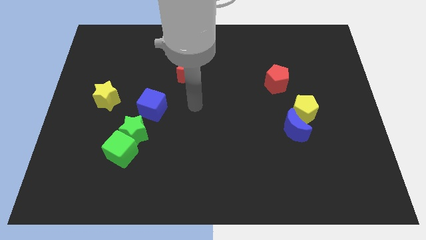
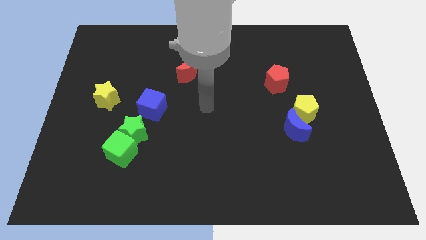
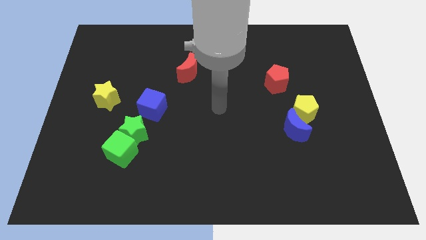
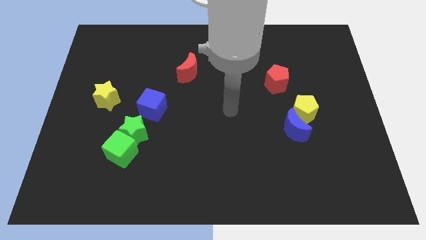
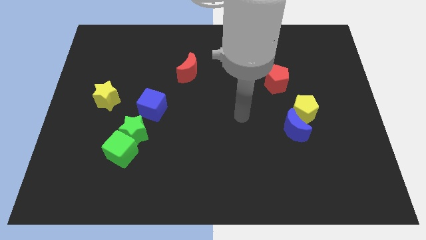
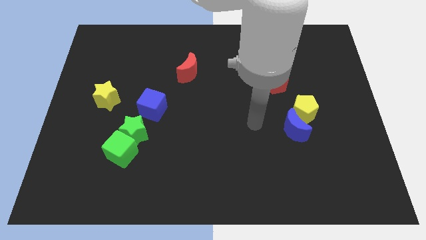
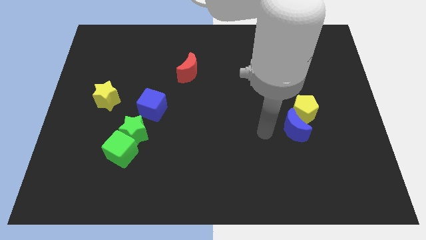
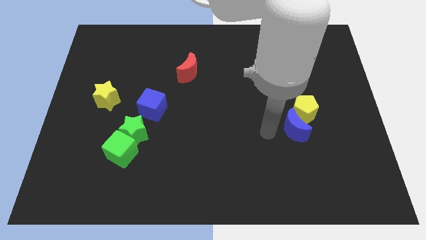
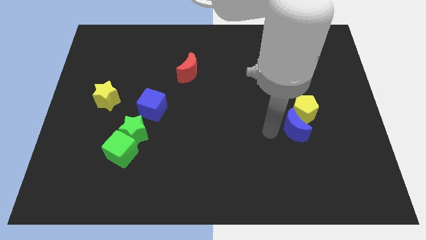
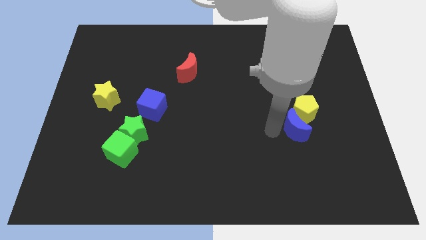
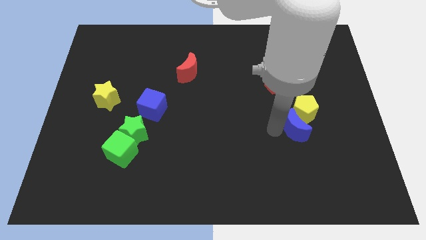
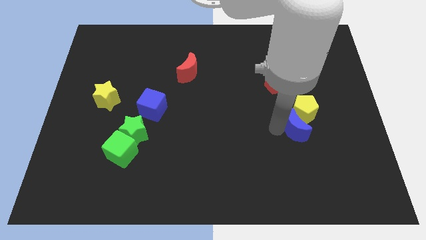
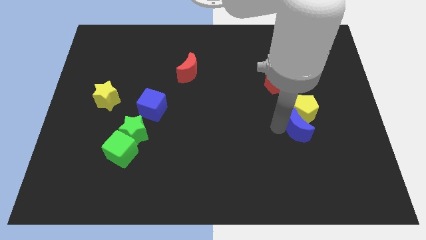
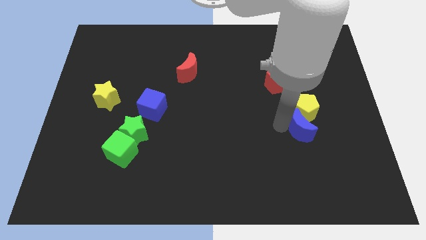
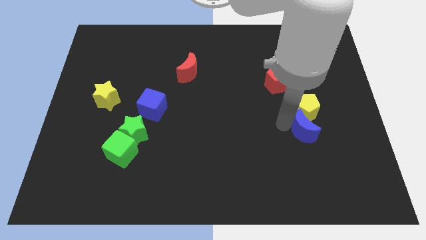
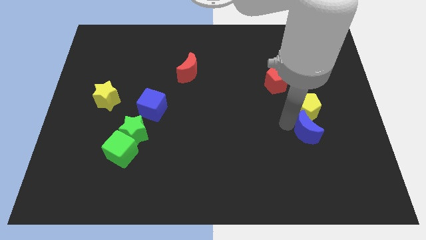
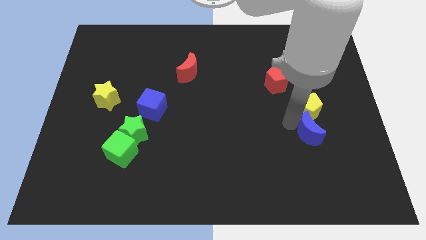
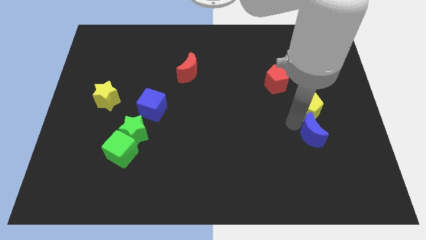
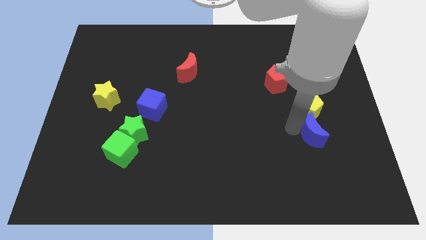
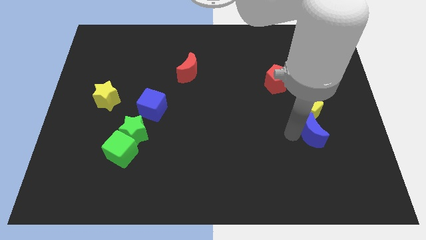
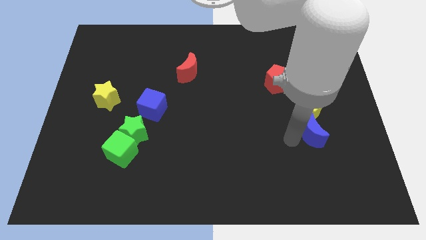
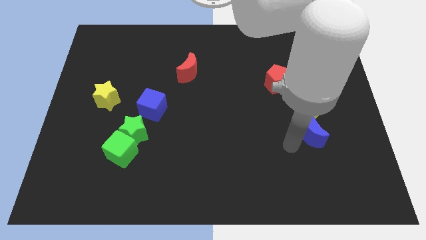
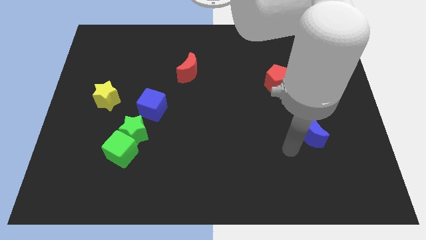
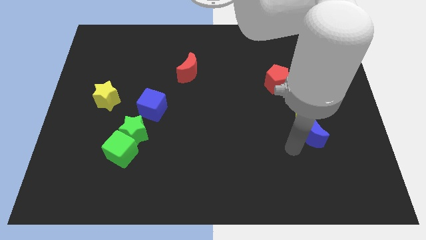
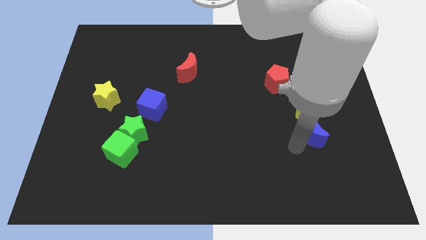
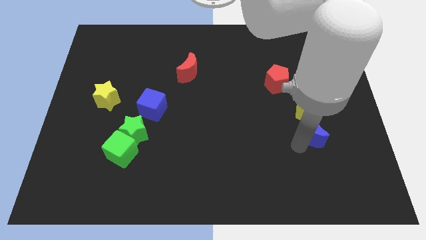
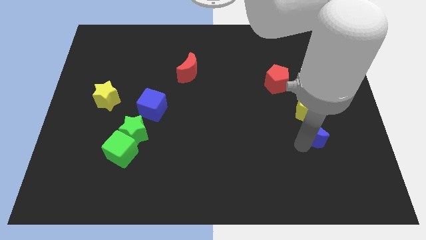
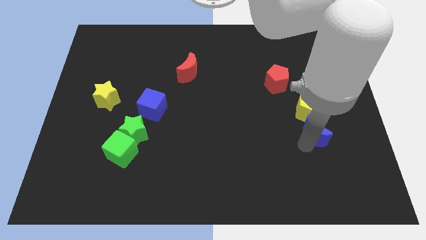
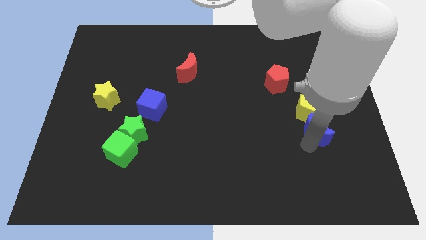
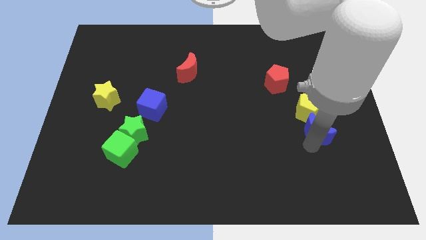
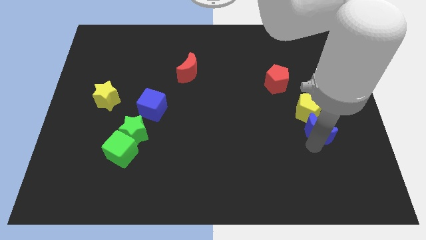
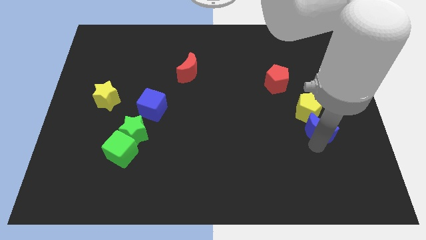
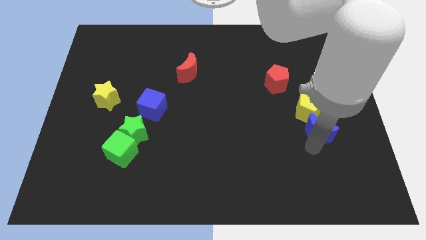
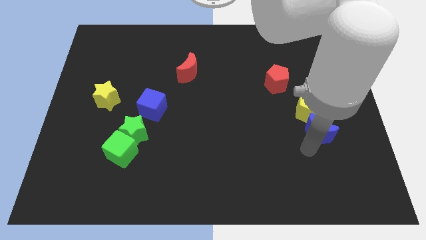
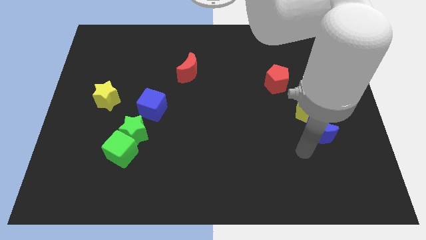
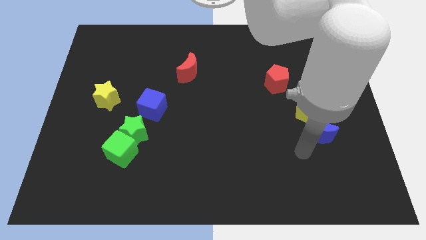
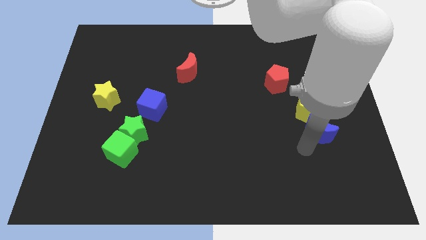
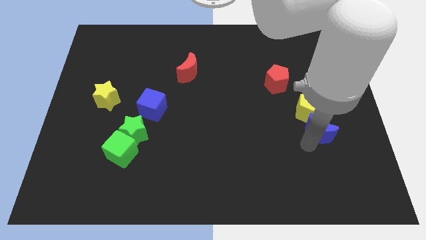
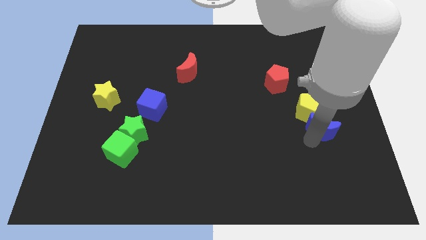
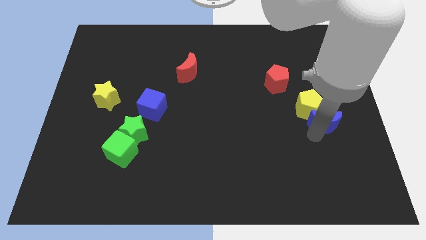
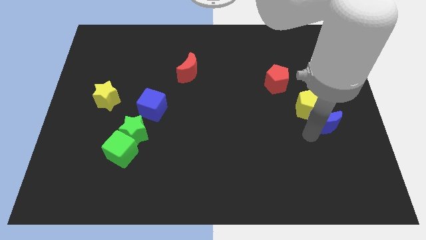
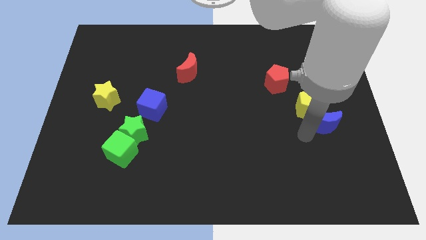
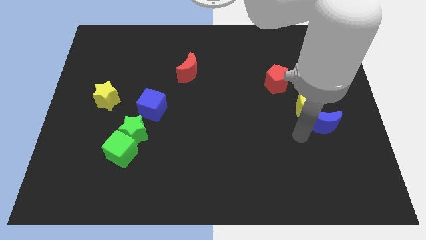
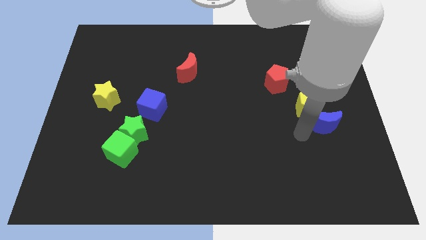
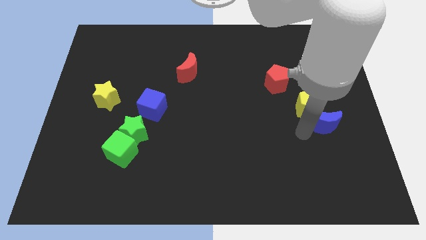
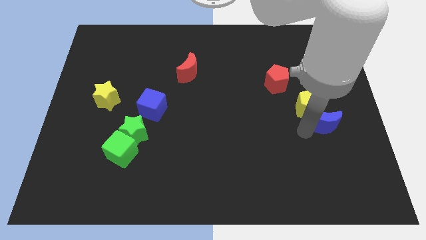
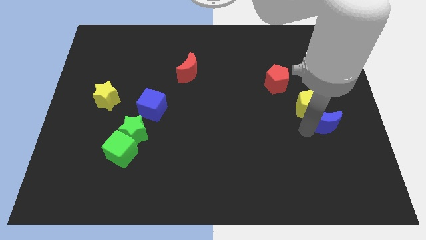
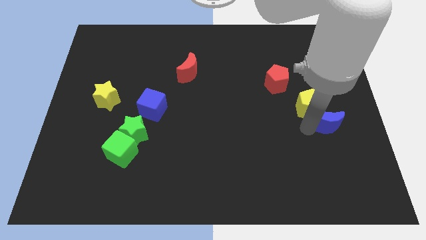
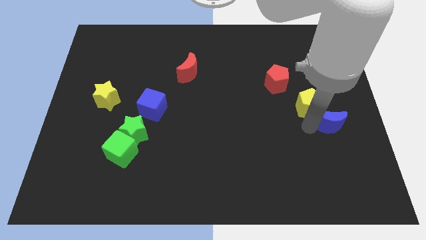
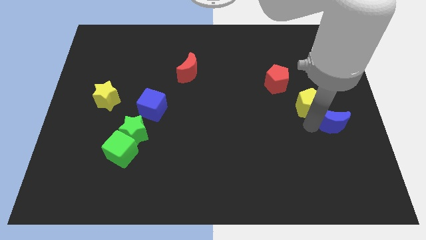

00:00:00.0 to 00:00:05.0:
push the blue moon to the right side of the board

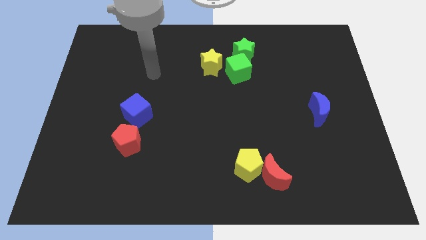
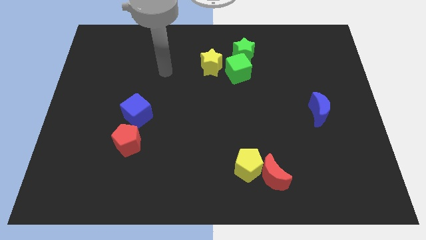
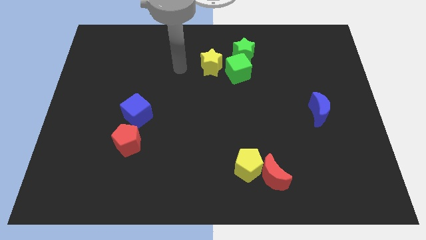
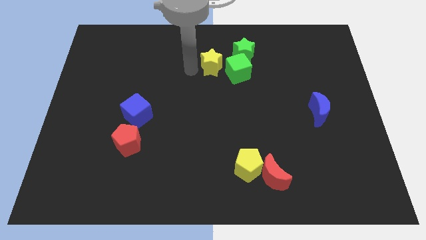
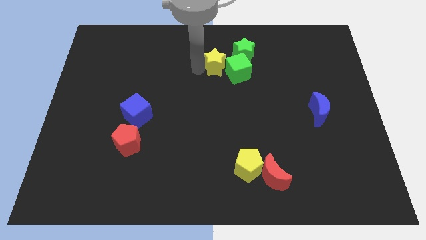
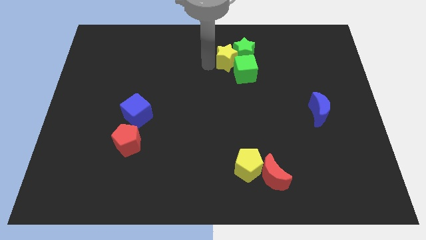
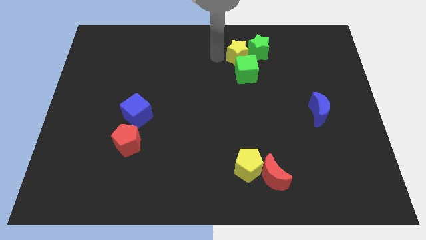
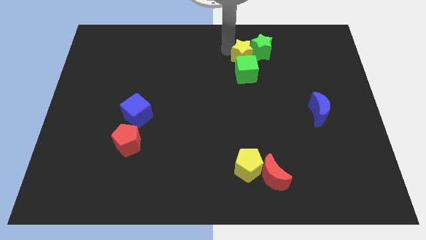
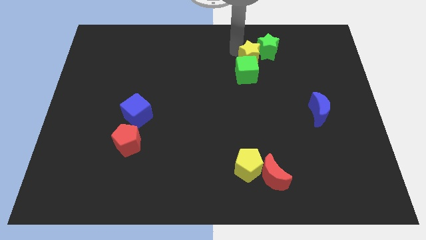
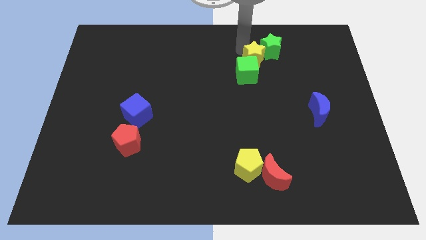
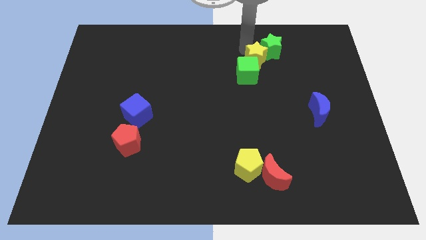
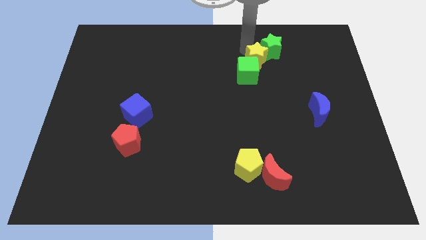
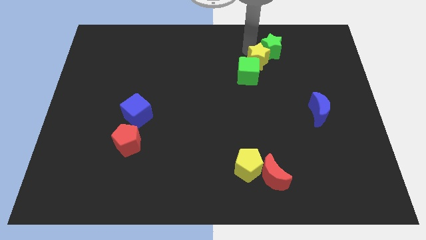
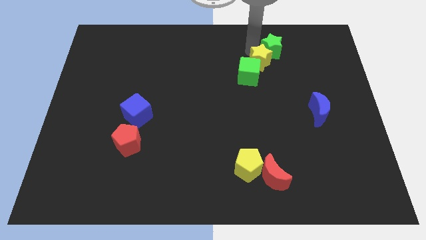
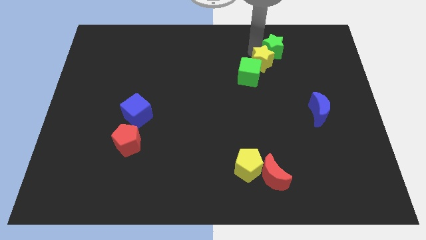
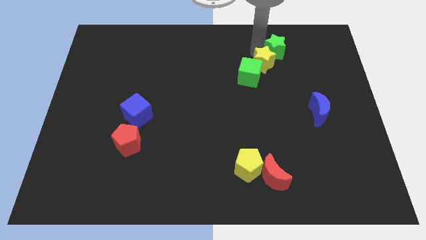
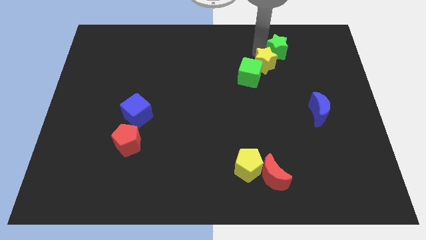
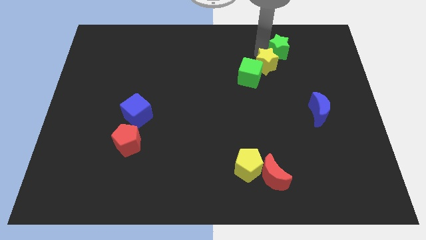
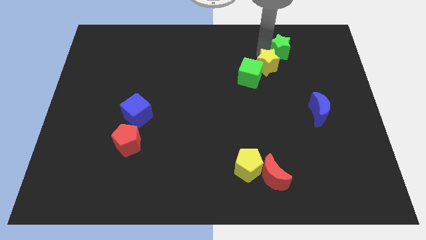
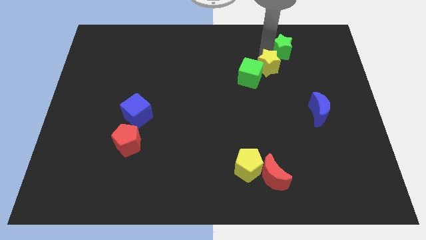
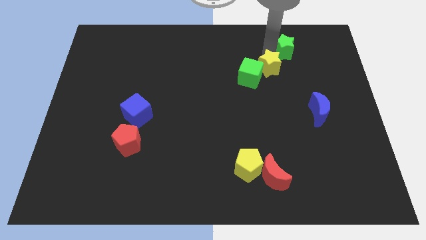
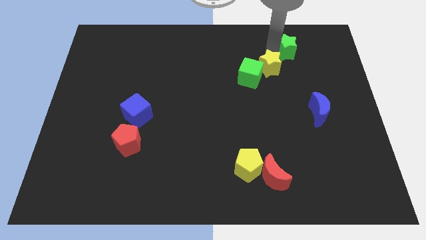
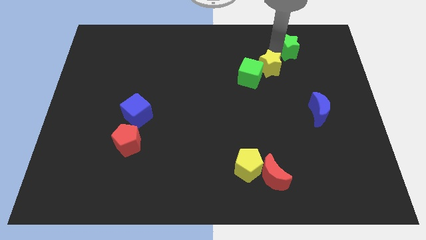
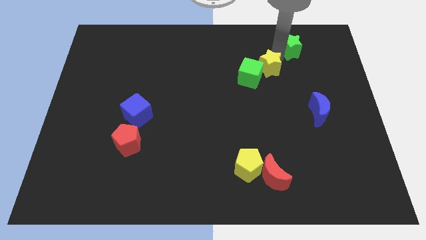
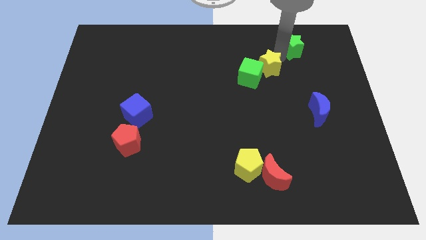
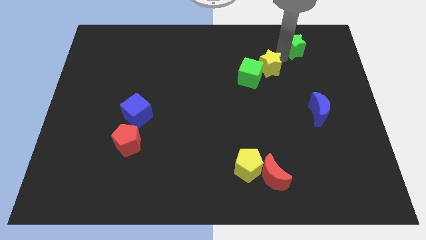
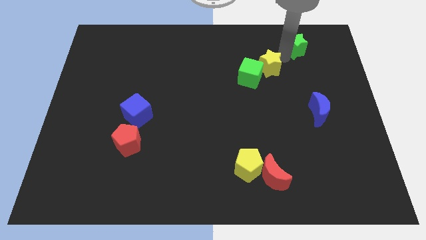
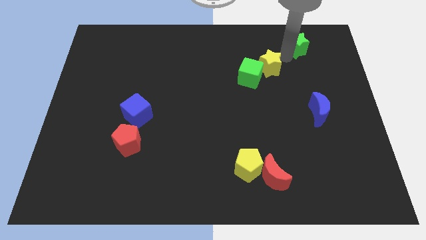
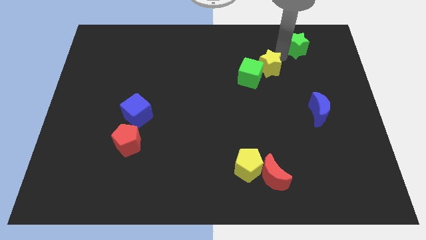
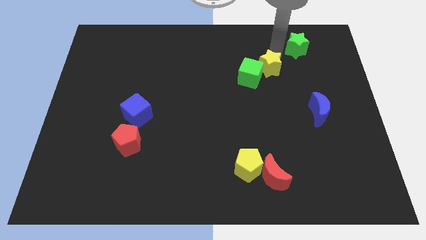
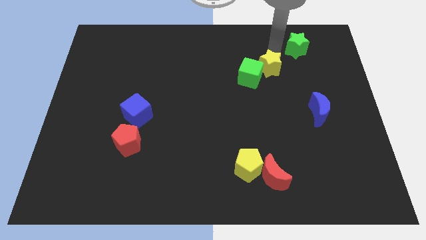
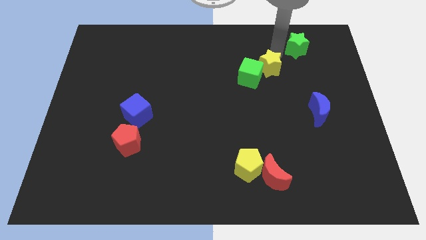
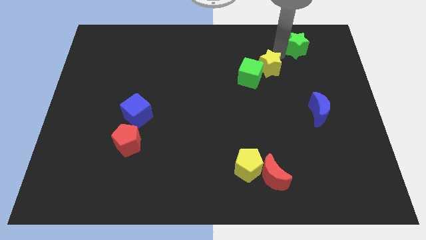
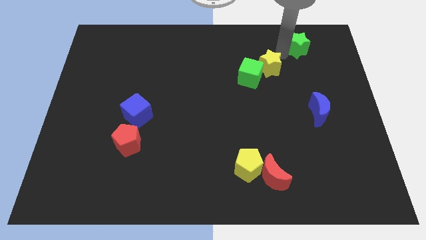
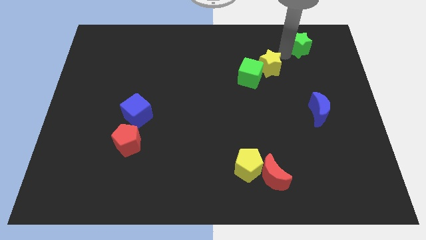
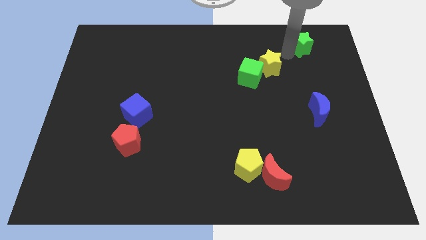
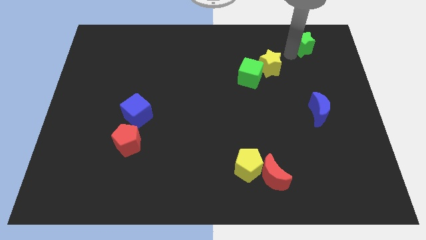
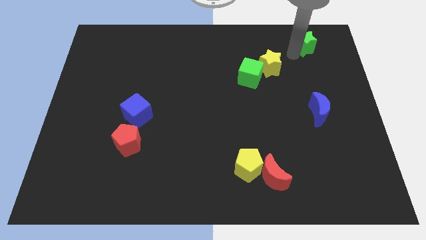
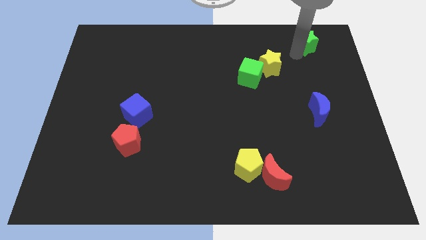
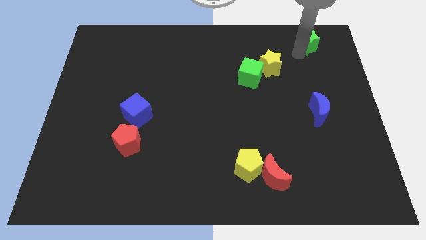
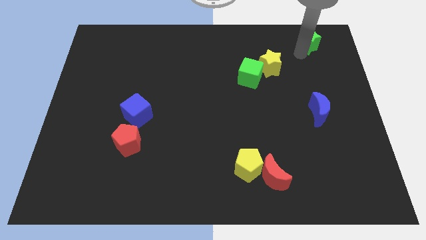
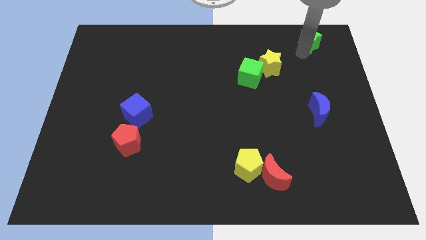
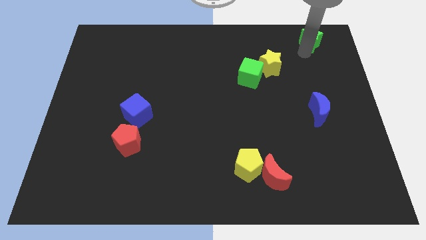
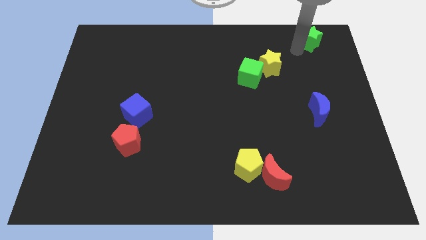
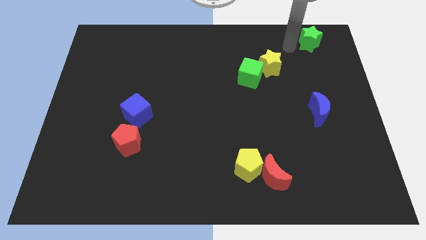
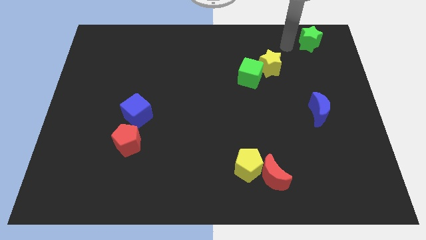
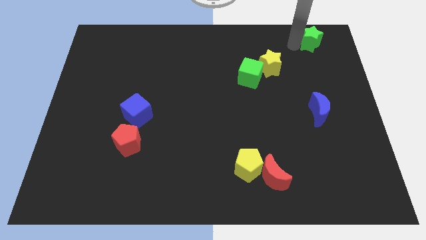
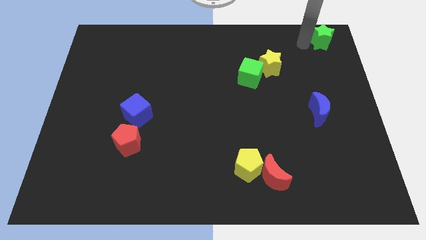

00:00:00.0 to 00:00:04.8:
slide the green star to the top right
